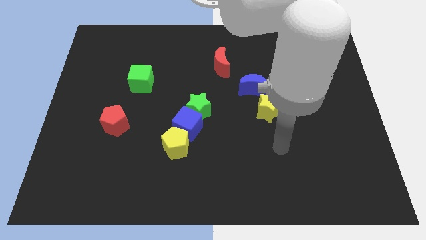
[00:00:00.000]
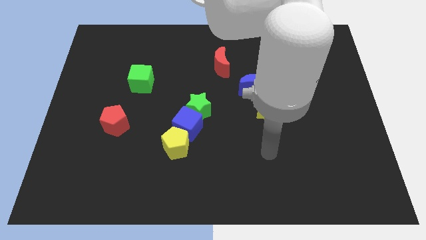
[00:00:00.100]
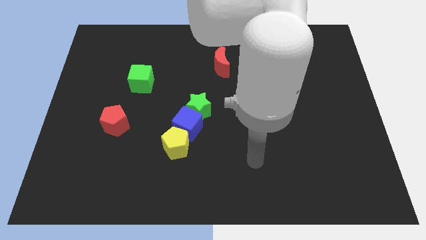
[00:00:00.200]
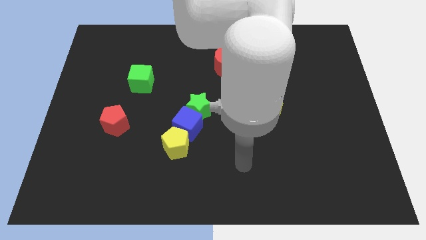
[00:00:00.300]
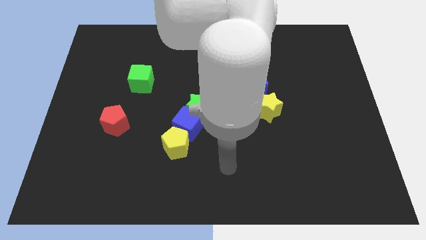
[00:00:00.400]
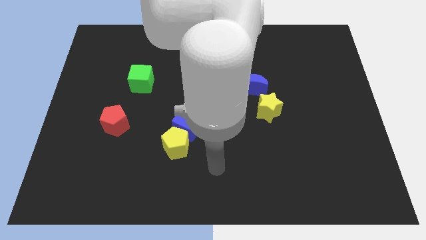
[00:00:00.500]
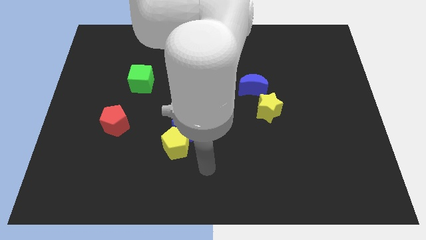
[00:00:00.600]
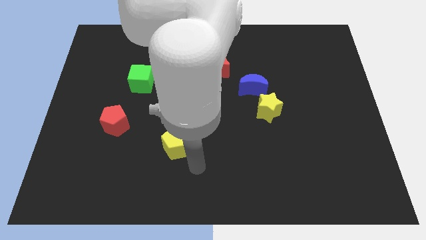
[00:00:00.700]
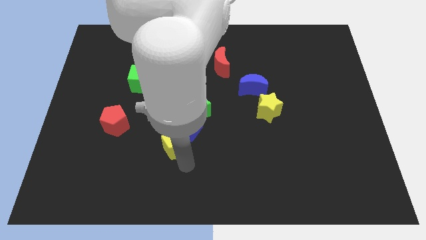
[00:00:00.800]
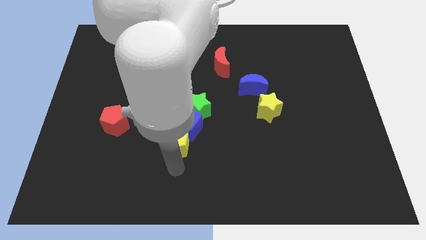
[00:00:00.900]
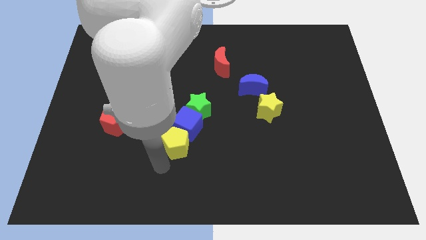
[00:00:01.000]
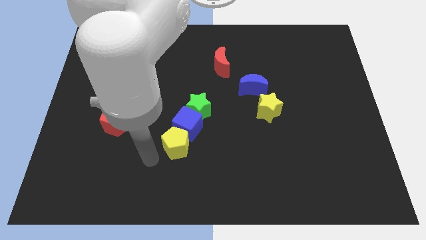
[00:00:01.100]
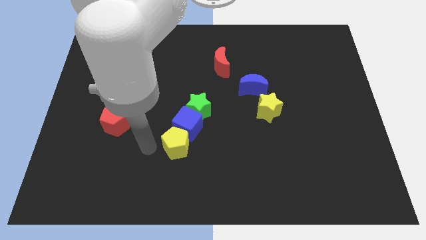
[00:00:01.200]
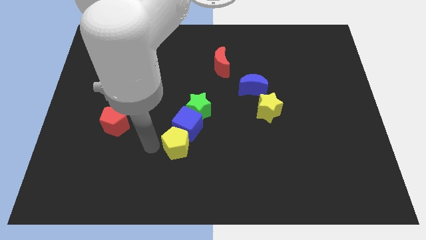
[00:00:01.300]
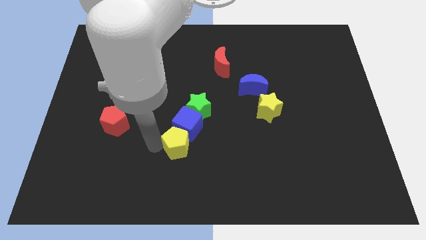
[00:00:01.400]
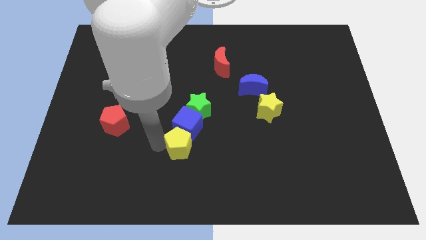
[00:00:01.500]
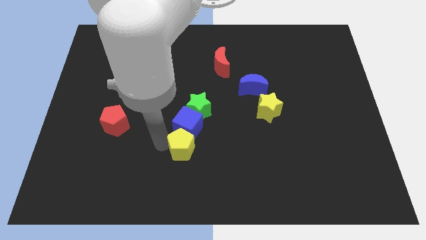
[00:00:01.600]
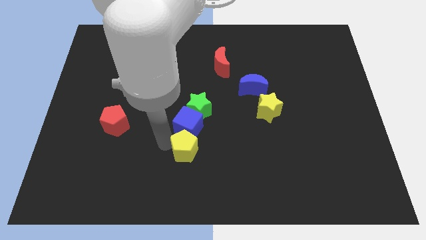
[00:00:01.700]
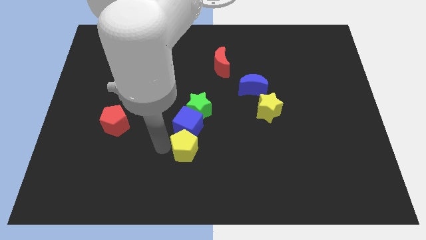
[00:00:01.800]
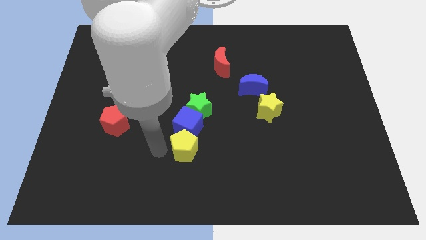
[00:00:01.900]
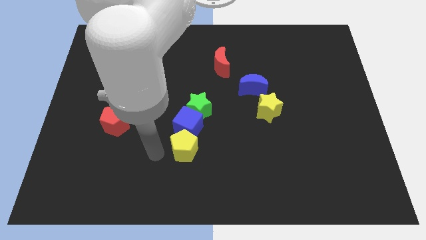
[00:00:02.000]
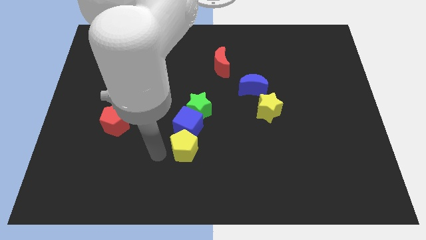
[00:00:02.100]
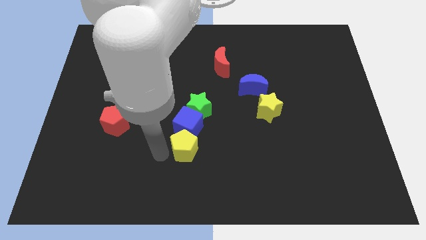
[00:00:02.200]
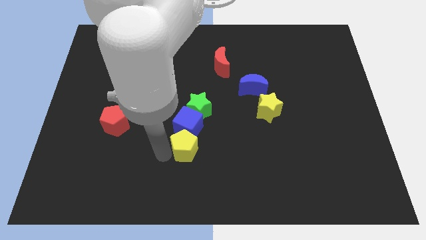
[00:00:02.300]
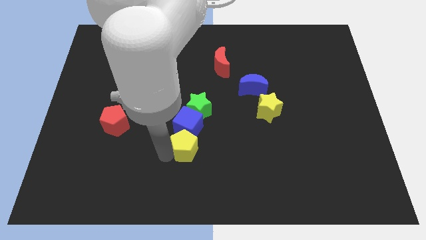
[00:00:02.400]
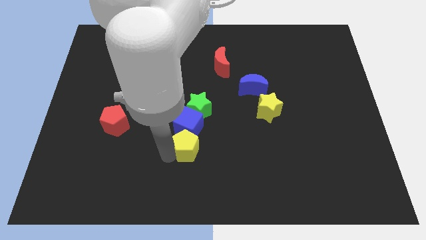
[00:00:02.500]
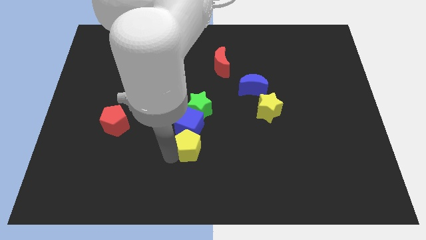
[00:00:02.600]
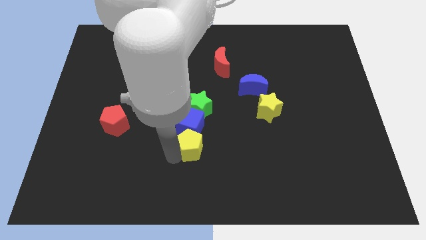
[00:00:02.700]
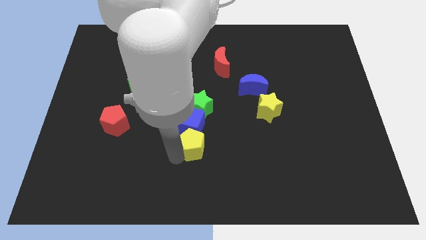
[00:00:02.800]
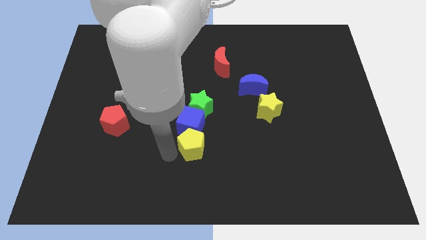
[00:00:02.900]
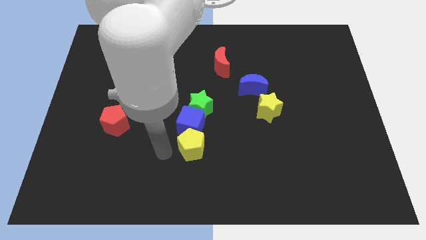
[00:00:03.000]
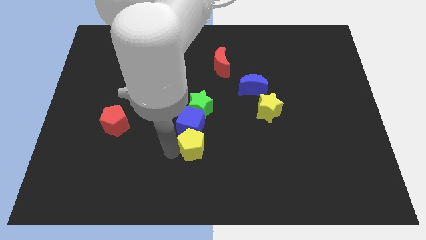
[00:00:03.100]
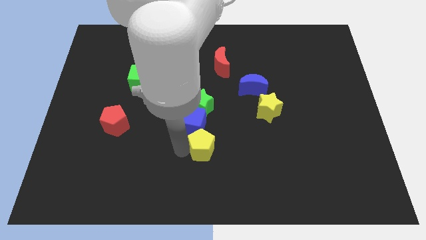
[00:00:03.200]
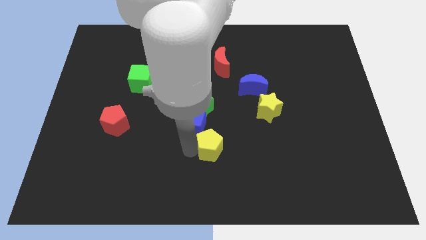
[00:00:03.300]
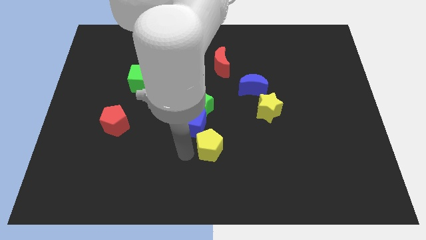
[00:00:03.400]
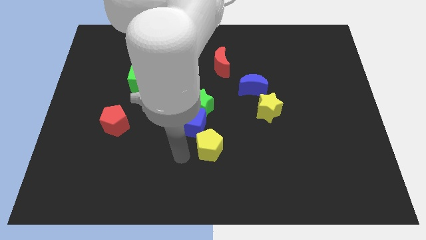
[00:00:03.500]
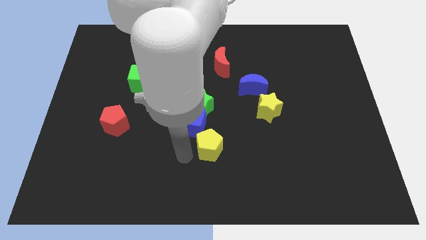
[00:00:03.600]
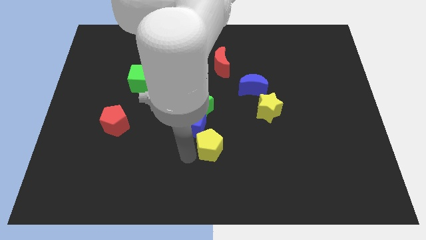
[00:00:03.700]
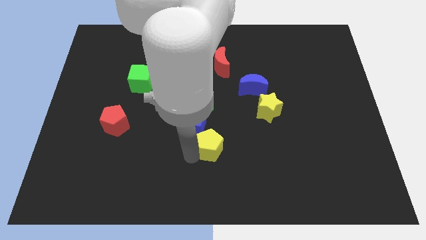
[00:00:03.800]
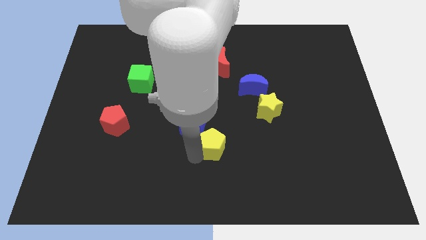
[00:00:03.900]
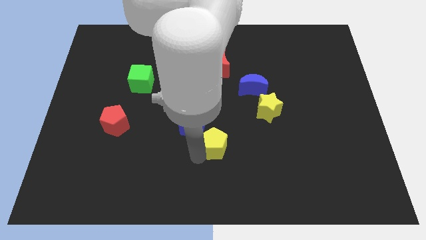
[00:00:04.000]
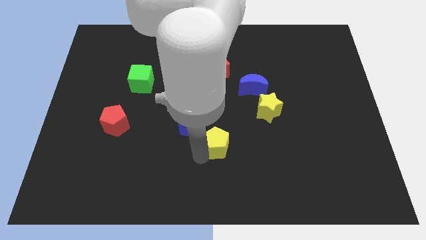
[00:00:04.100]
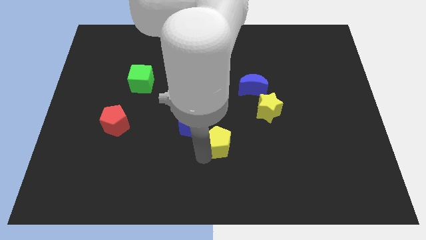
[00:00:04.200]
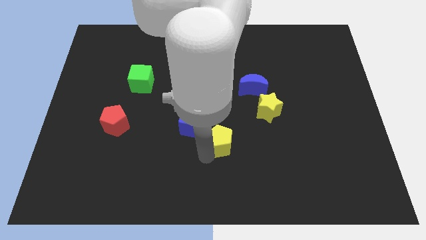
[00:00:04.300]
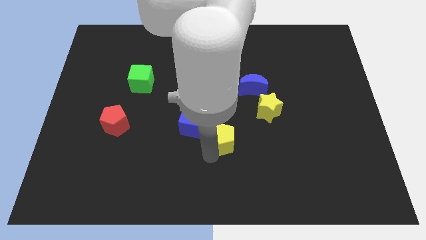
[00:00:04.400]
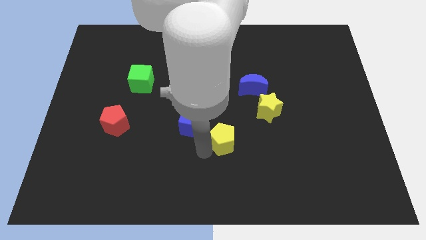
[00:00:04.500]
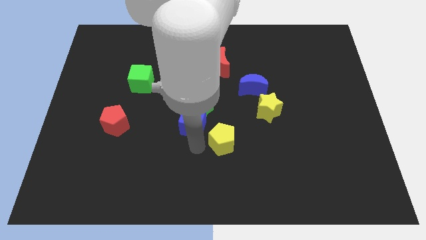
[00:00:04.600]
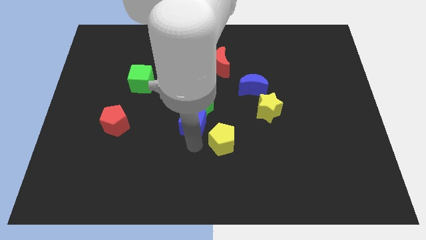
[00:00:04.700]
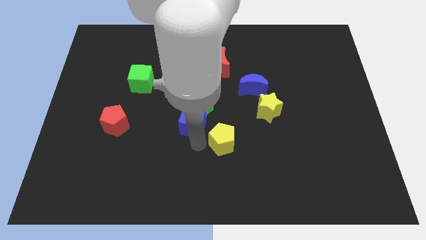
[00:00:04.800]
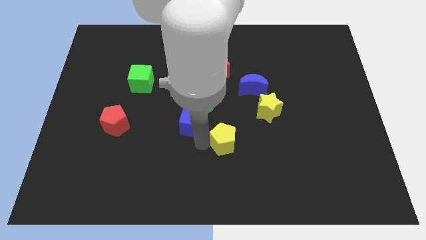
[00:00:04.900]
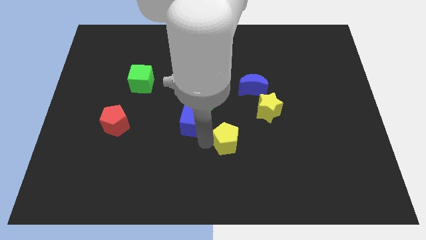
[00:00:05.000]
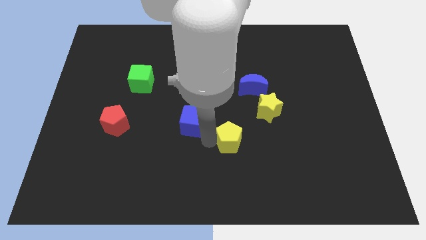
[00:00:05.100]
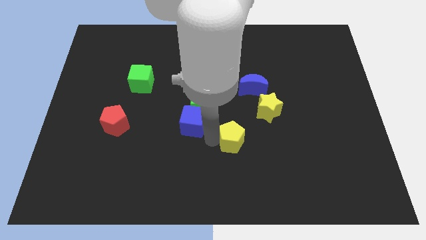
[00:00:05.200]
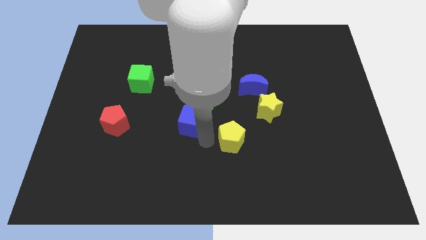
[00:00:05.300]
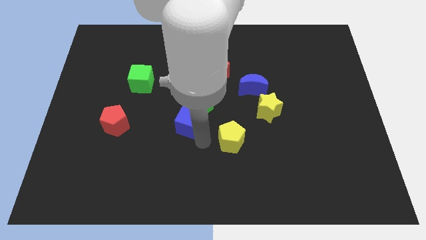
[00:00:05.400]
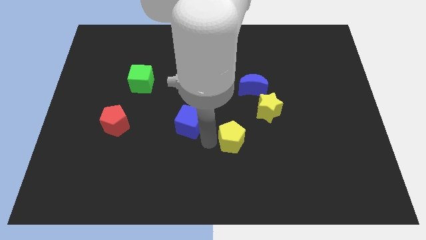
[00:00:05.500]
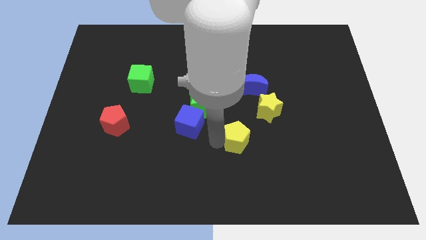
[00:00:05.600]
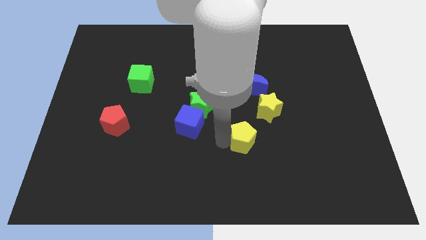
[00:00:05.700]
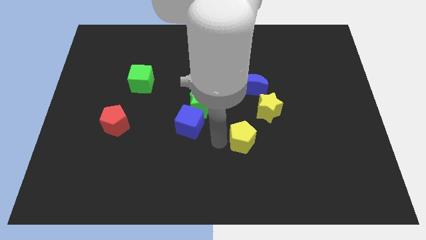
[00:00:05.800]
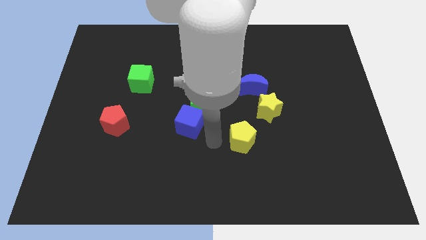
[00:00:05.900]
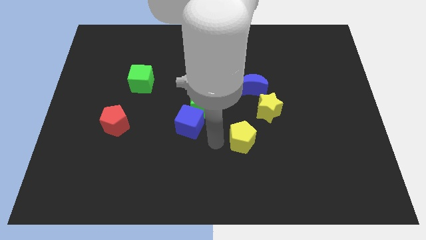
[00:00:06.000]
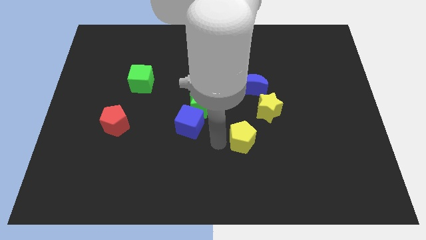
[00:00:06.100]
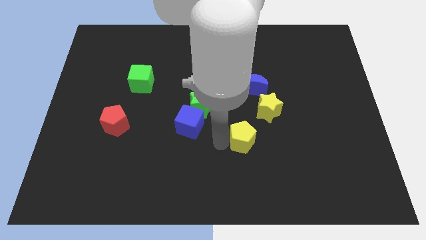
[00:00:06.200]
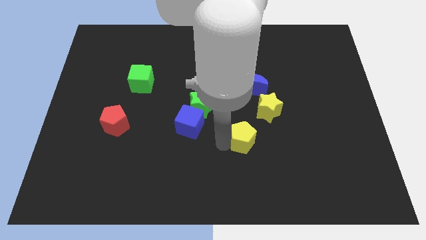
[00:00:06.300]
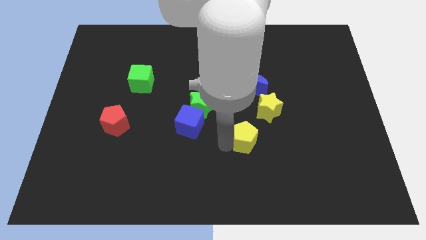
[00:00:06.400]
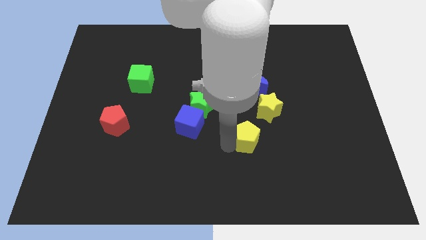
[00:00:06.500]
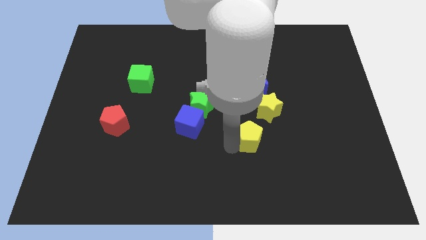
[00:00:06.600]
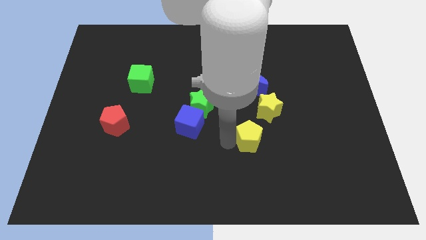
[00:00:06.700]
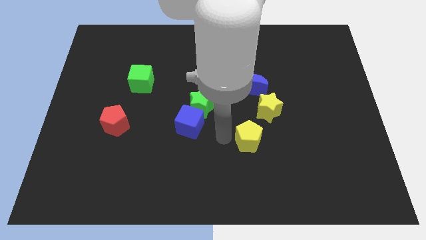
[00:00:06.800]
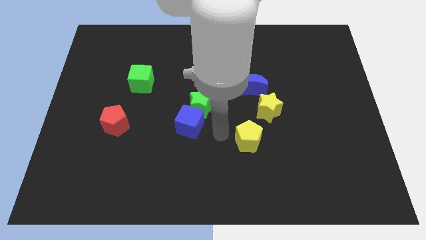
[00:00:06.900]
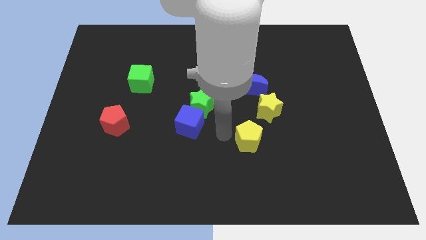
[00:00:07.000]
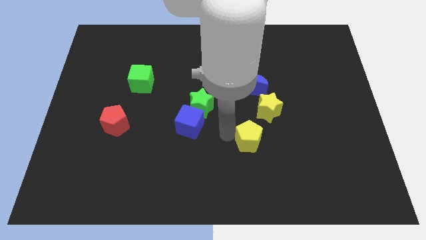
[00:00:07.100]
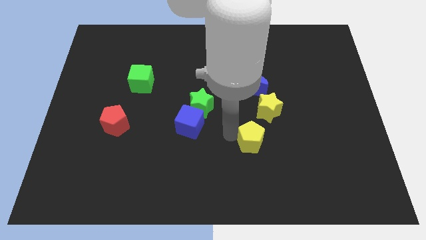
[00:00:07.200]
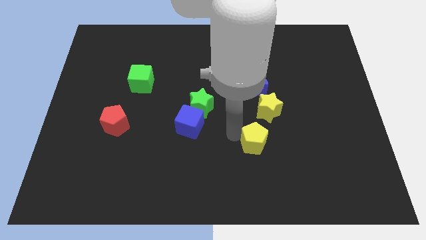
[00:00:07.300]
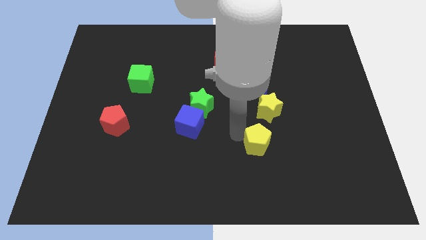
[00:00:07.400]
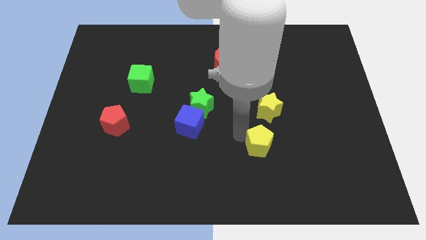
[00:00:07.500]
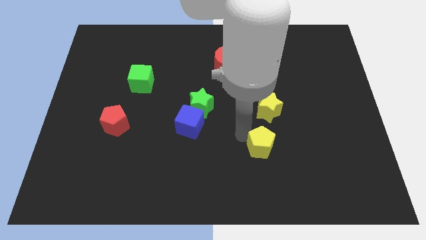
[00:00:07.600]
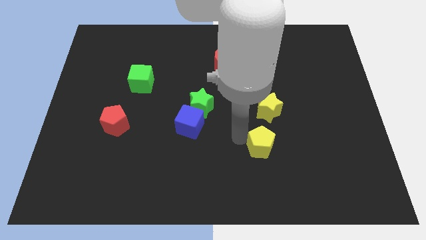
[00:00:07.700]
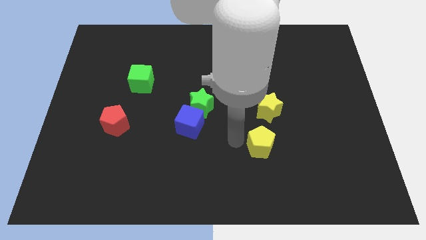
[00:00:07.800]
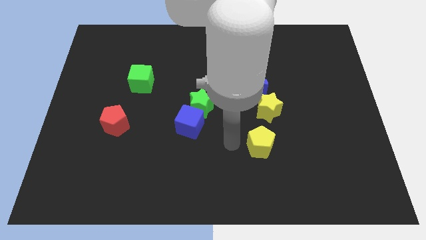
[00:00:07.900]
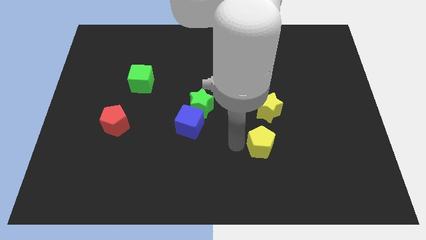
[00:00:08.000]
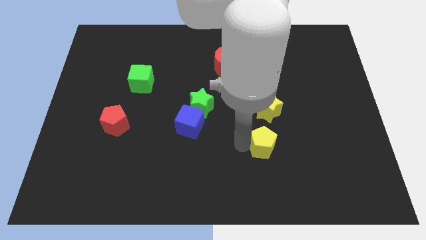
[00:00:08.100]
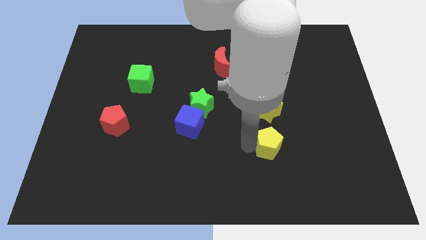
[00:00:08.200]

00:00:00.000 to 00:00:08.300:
move the yellow pentagon to the right
